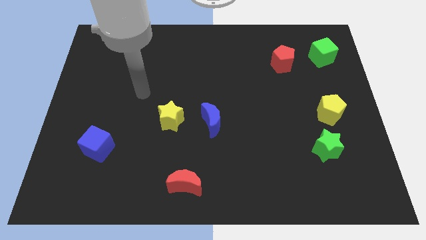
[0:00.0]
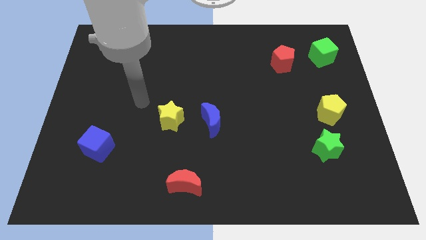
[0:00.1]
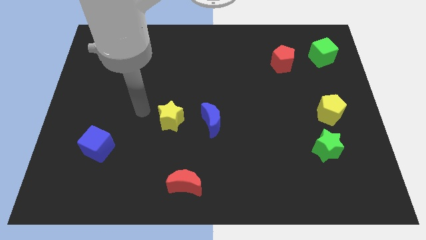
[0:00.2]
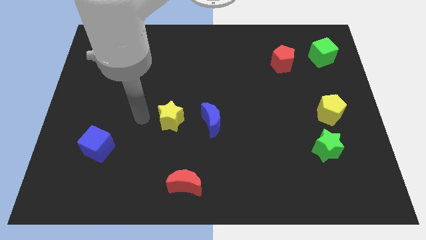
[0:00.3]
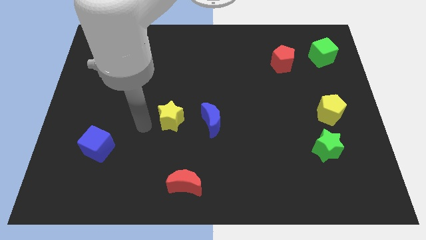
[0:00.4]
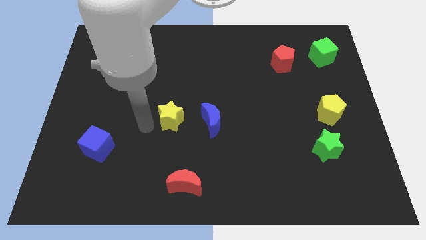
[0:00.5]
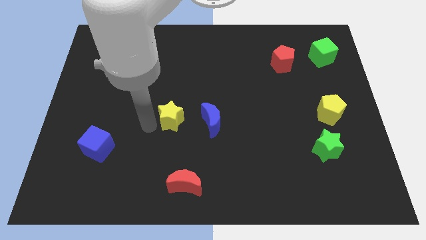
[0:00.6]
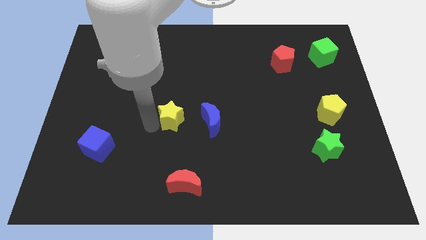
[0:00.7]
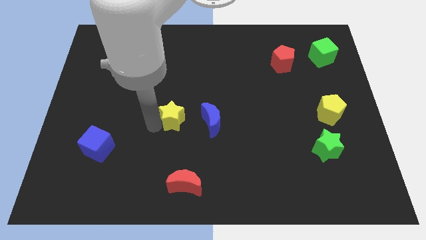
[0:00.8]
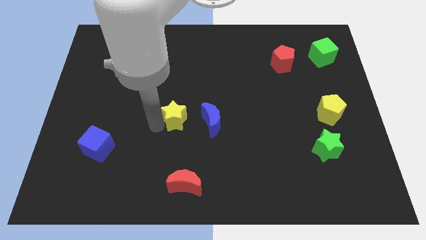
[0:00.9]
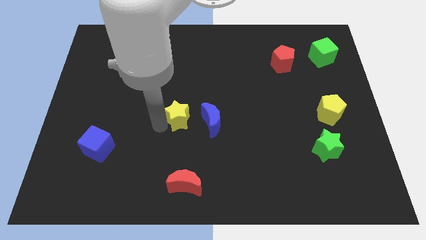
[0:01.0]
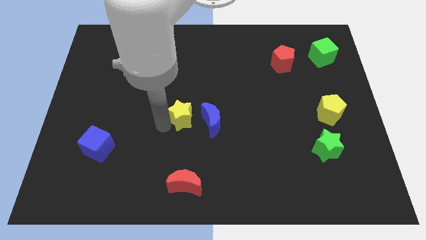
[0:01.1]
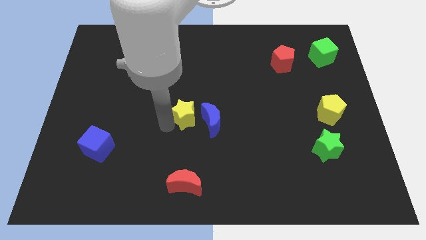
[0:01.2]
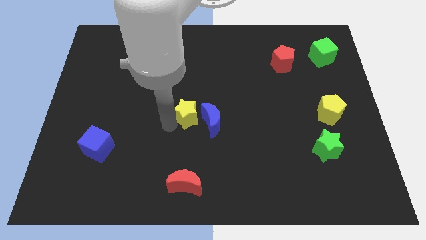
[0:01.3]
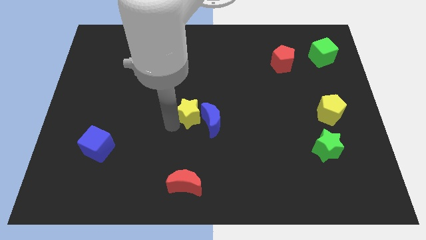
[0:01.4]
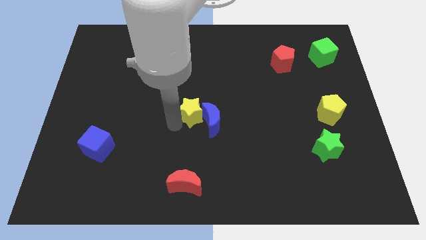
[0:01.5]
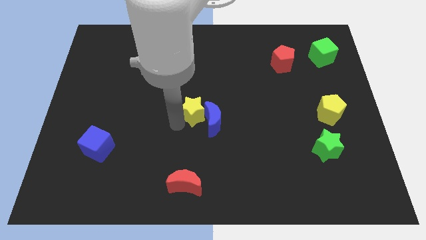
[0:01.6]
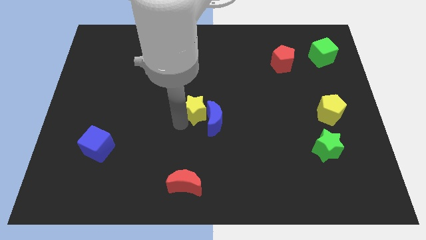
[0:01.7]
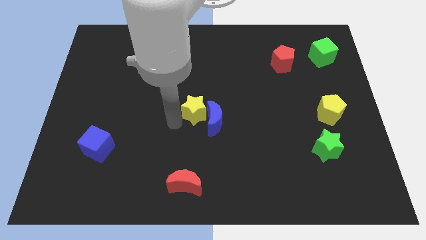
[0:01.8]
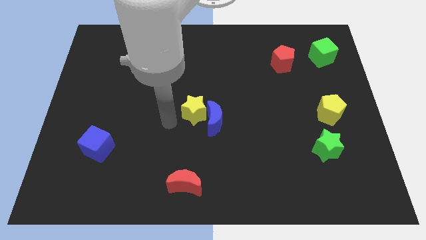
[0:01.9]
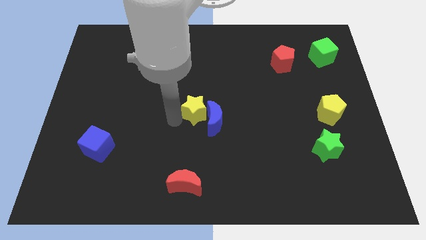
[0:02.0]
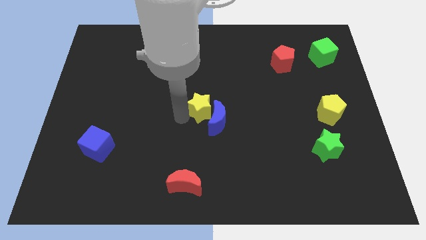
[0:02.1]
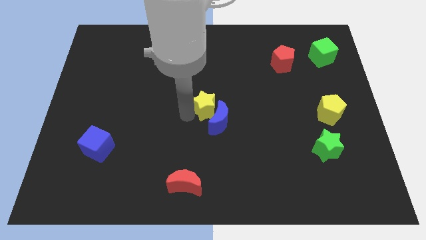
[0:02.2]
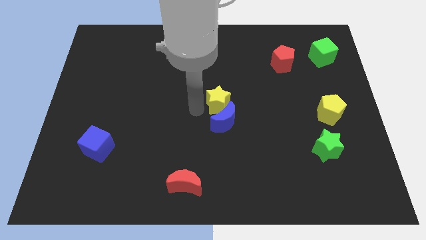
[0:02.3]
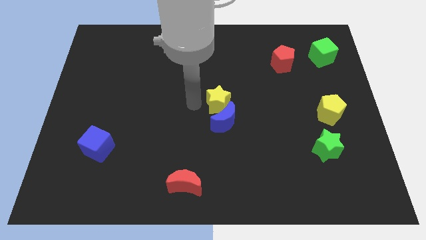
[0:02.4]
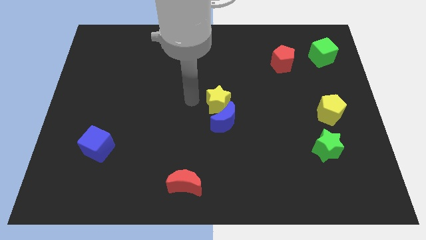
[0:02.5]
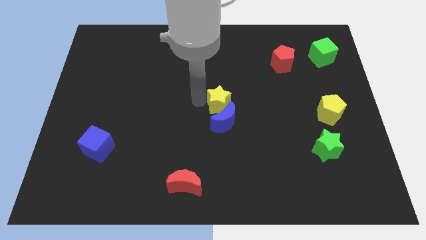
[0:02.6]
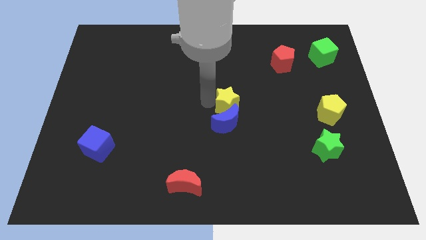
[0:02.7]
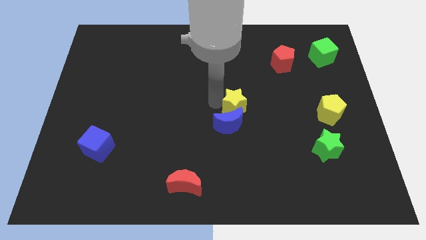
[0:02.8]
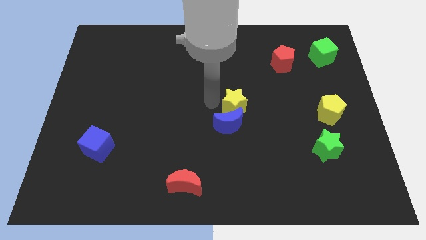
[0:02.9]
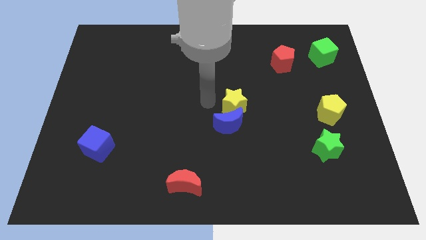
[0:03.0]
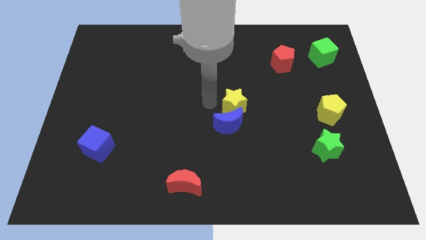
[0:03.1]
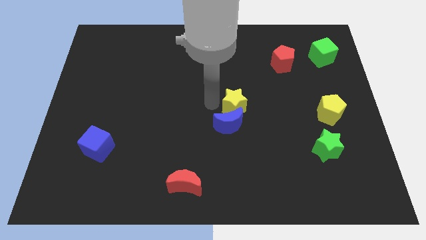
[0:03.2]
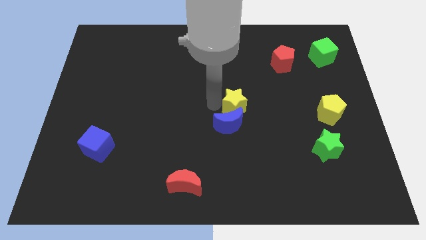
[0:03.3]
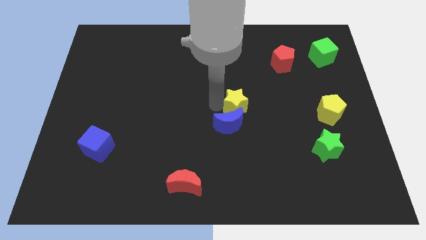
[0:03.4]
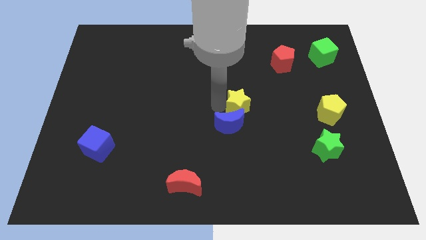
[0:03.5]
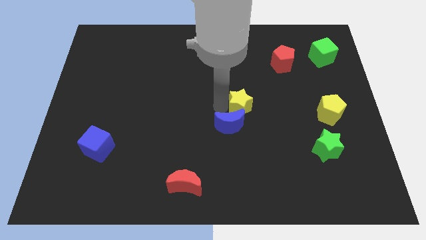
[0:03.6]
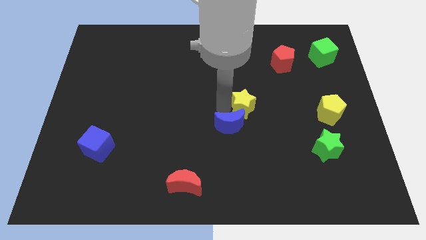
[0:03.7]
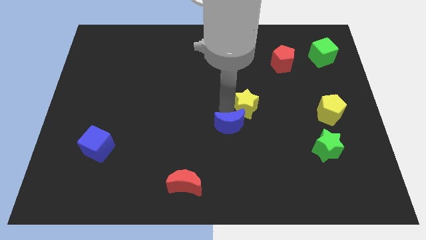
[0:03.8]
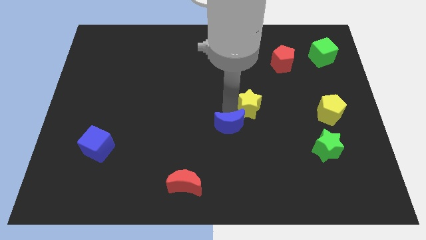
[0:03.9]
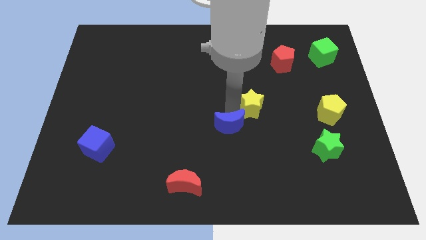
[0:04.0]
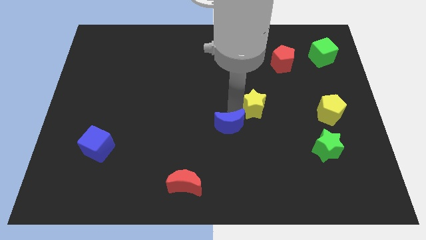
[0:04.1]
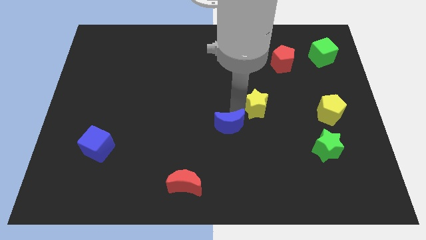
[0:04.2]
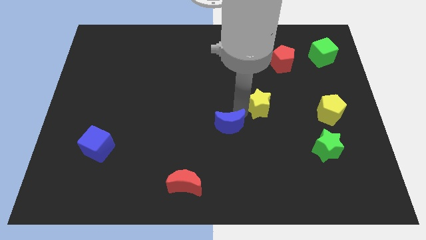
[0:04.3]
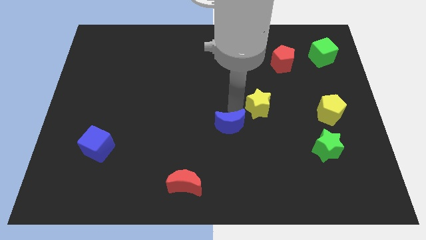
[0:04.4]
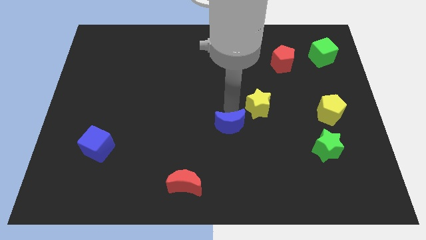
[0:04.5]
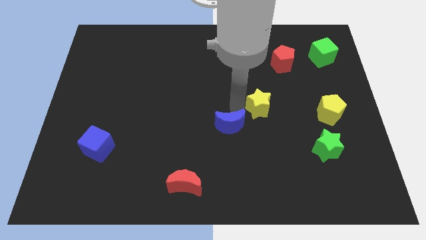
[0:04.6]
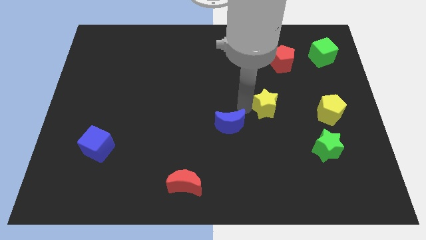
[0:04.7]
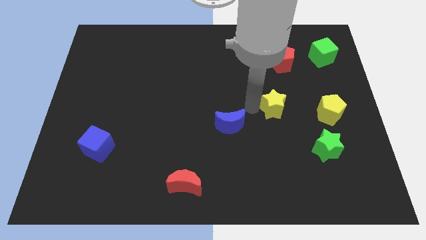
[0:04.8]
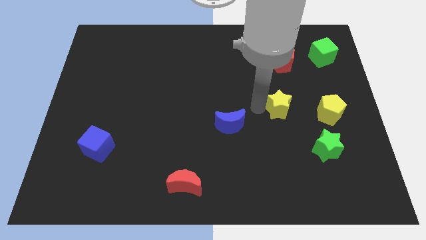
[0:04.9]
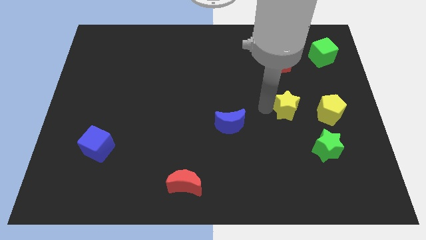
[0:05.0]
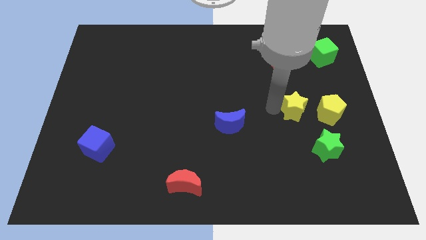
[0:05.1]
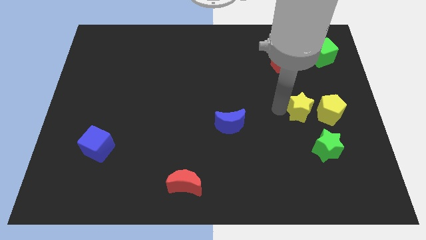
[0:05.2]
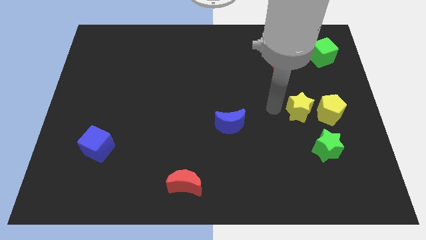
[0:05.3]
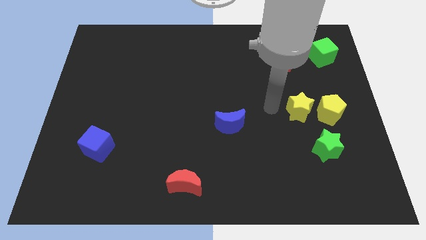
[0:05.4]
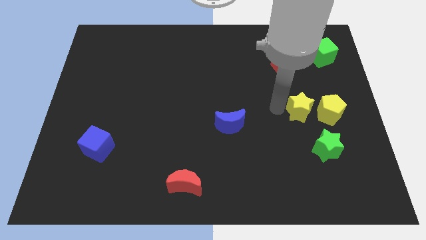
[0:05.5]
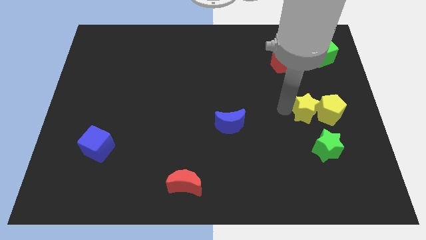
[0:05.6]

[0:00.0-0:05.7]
put the yellow star close to the yellow pentagon

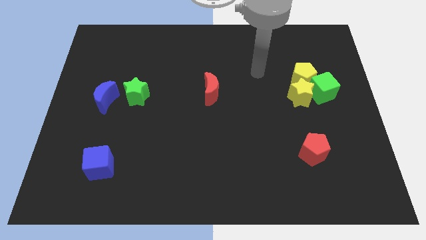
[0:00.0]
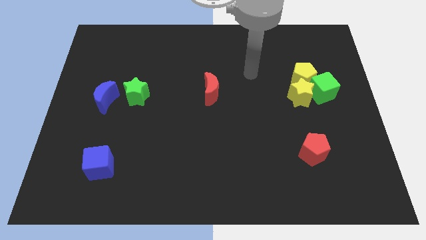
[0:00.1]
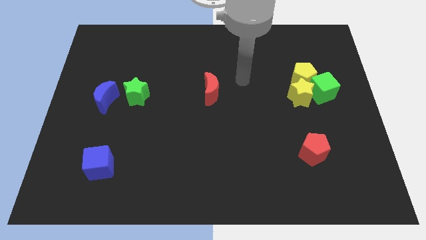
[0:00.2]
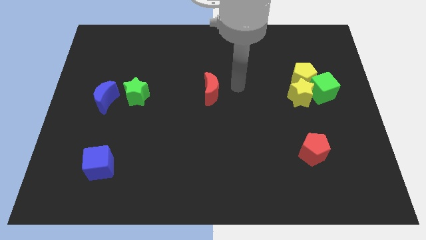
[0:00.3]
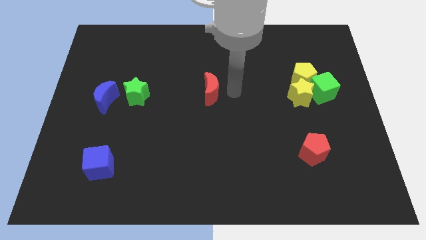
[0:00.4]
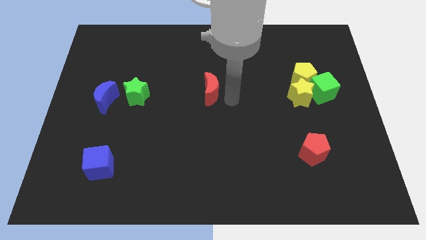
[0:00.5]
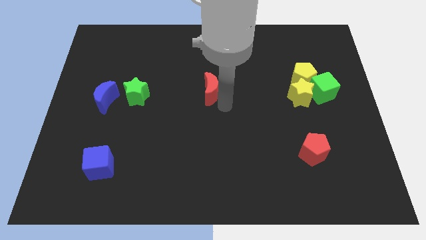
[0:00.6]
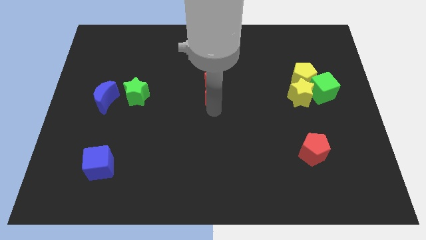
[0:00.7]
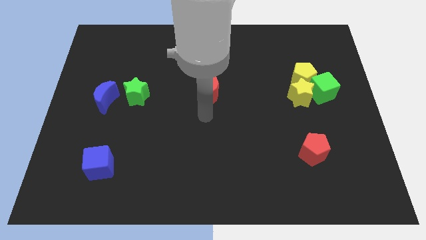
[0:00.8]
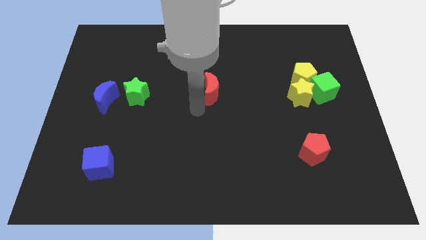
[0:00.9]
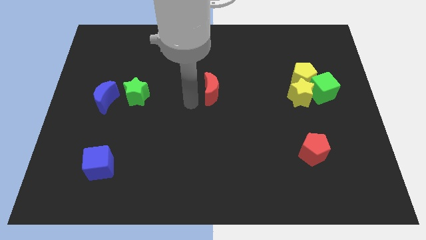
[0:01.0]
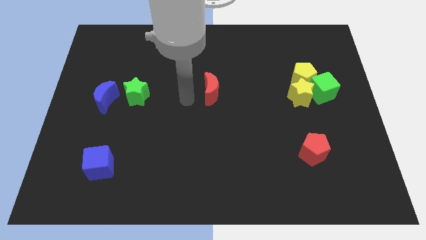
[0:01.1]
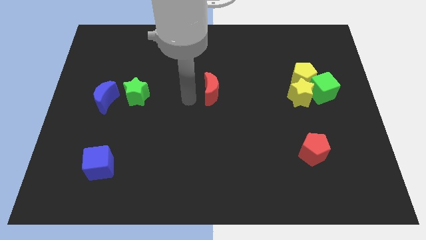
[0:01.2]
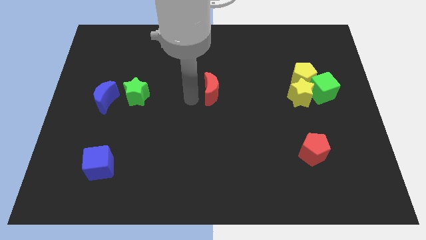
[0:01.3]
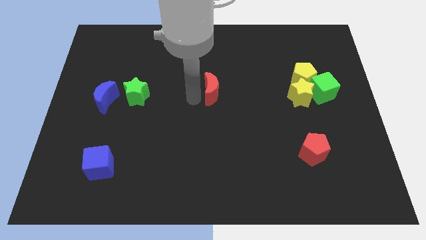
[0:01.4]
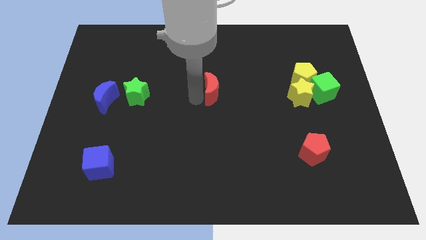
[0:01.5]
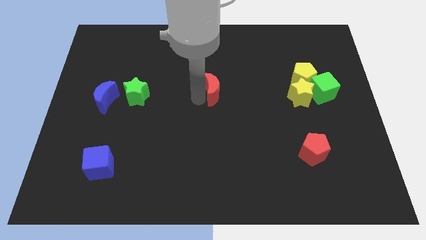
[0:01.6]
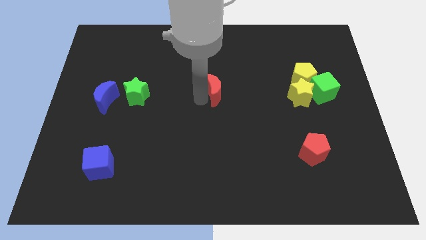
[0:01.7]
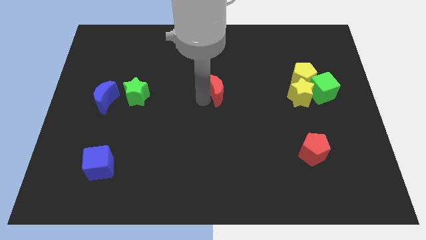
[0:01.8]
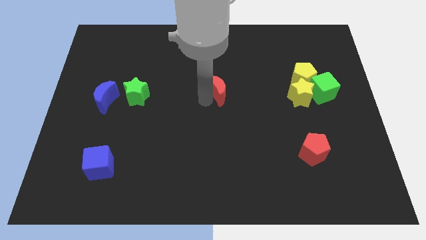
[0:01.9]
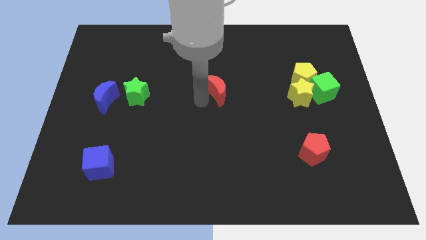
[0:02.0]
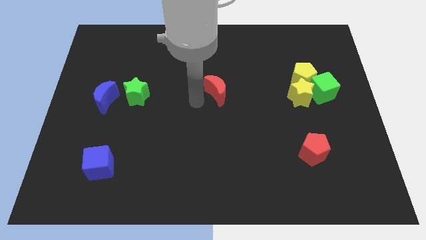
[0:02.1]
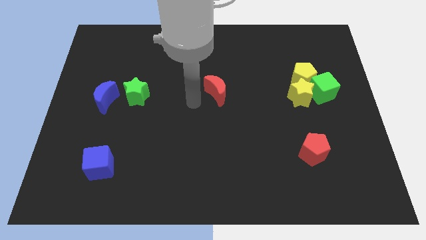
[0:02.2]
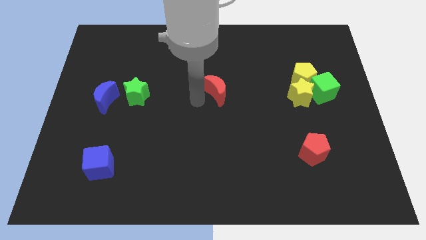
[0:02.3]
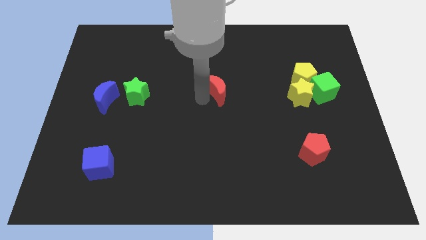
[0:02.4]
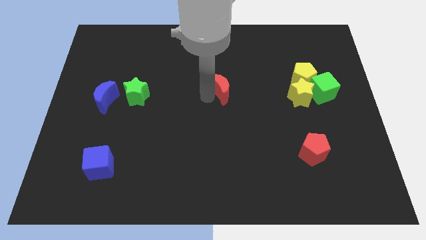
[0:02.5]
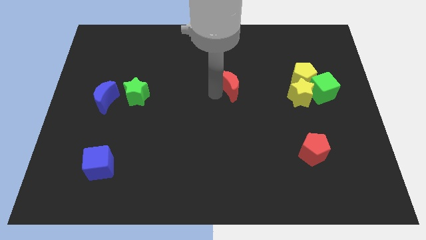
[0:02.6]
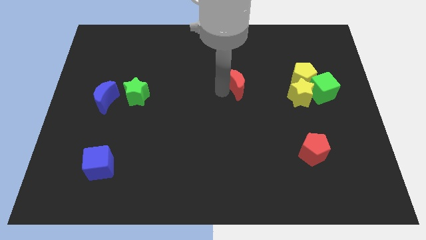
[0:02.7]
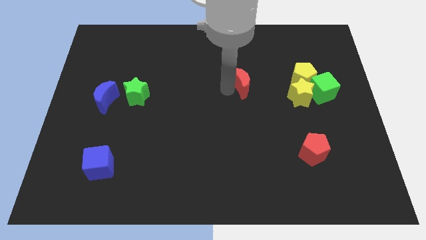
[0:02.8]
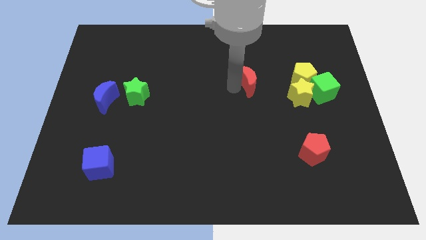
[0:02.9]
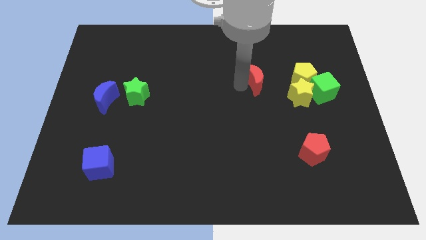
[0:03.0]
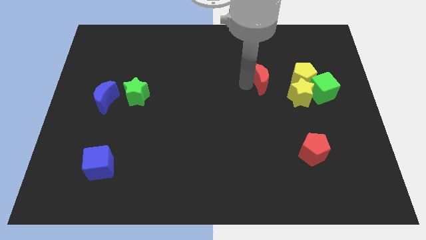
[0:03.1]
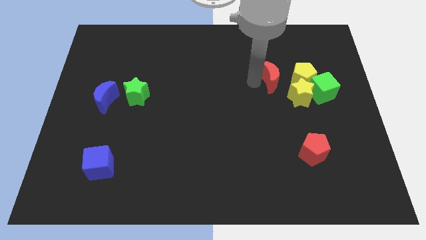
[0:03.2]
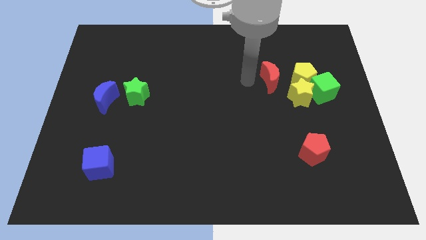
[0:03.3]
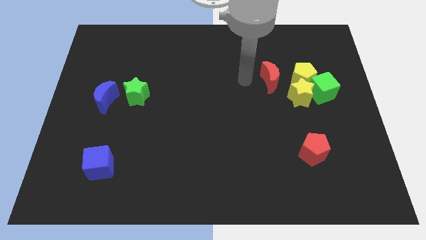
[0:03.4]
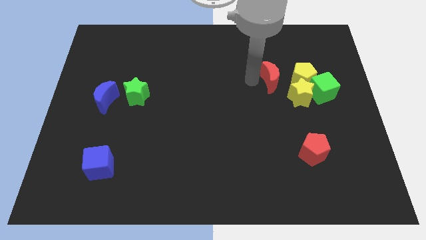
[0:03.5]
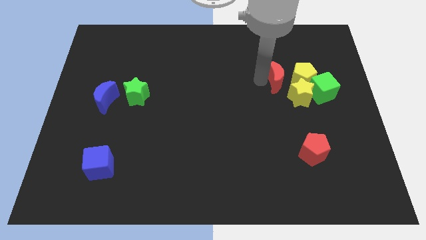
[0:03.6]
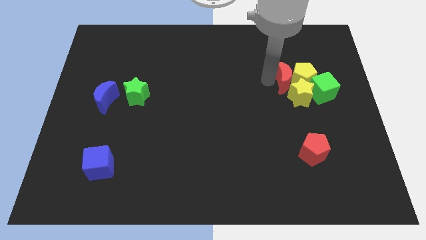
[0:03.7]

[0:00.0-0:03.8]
put the red moon to the yellow pentagon
